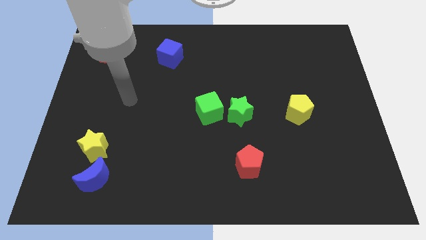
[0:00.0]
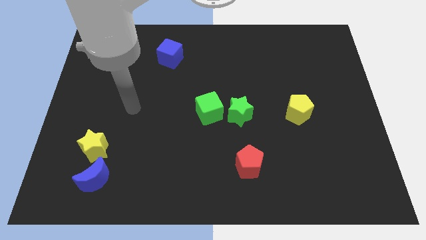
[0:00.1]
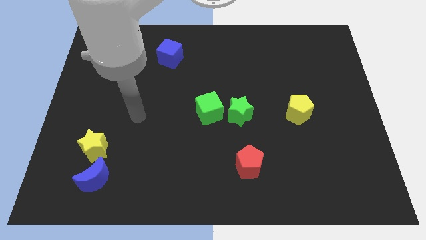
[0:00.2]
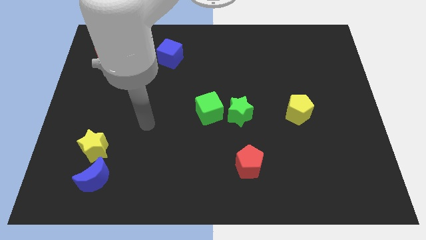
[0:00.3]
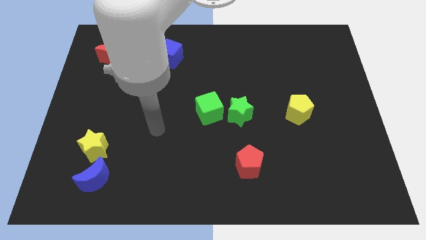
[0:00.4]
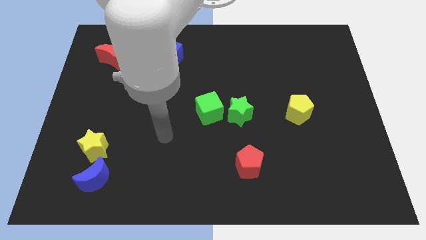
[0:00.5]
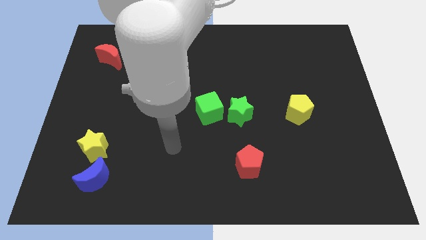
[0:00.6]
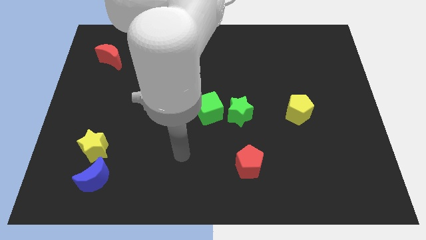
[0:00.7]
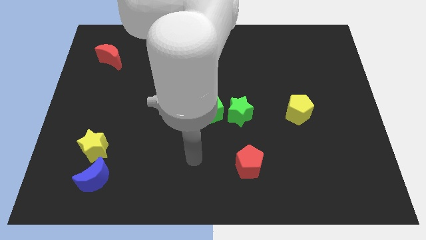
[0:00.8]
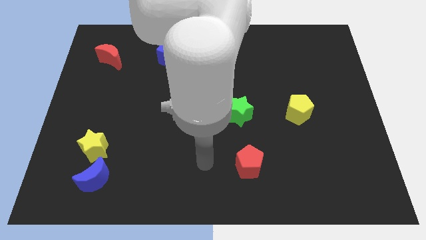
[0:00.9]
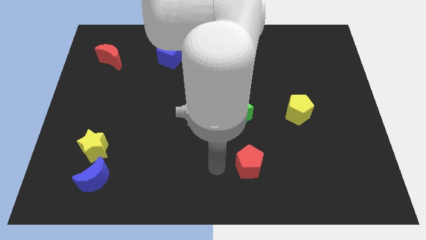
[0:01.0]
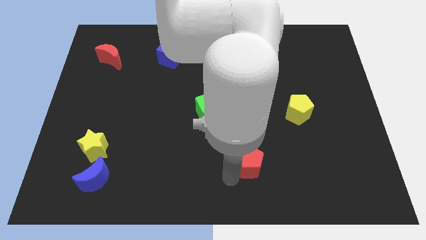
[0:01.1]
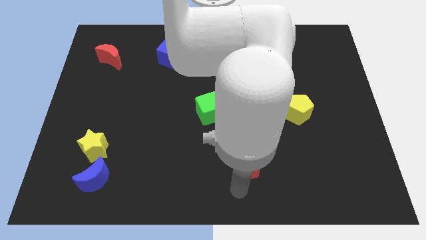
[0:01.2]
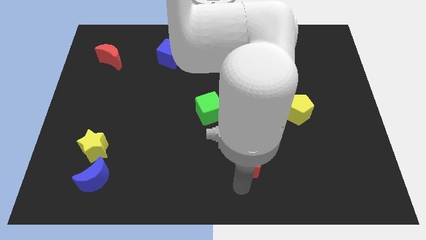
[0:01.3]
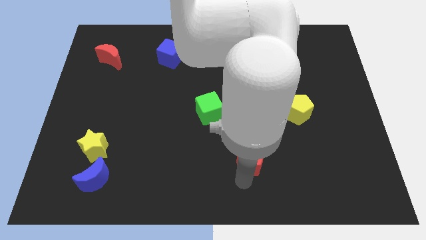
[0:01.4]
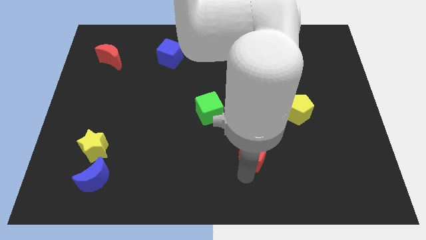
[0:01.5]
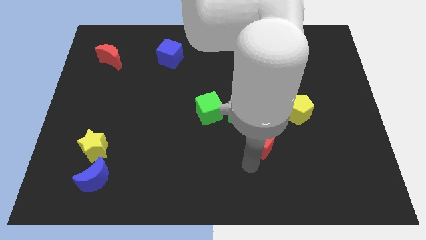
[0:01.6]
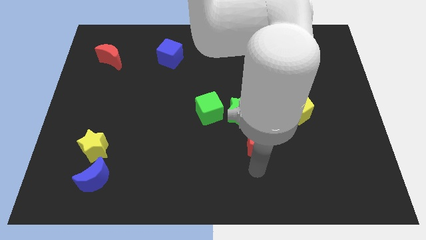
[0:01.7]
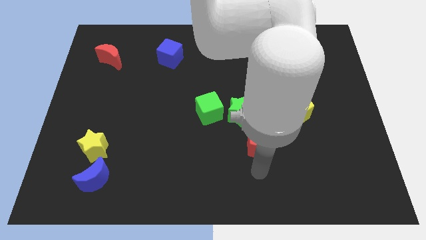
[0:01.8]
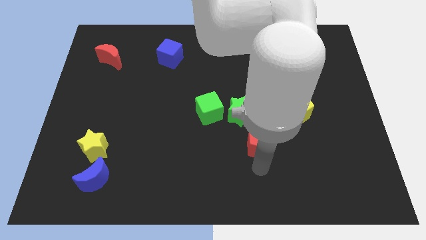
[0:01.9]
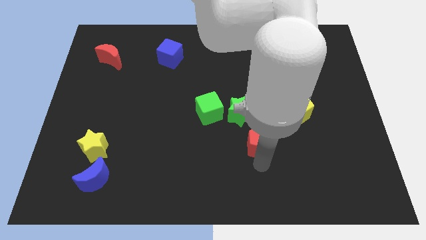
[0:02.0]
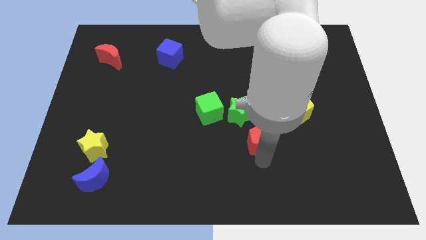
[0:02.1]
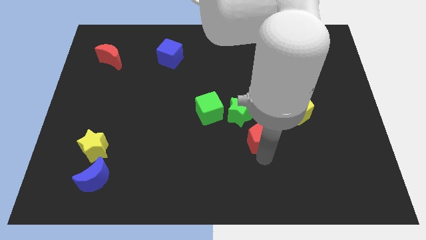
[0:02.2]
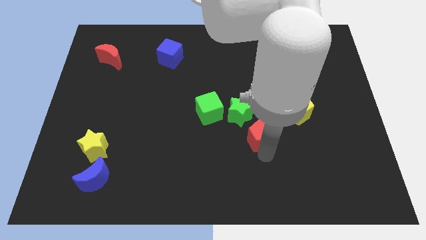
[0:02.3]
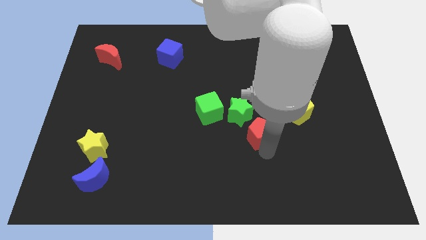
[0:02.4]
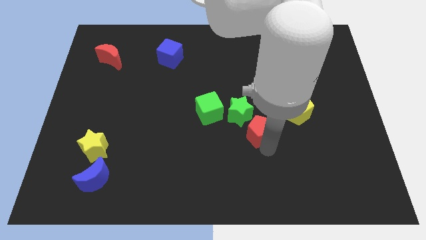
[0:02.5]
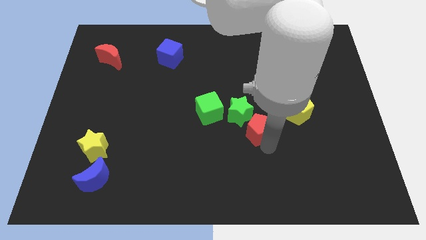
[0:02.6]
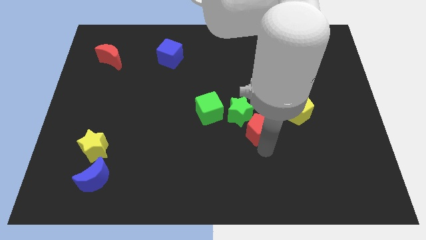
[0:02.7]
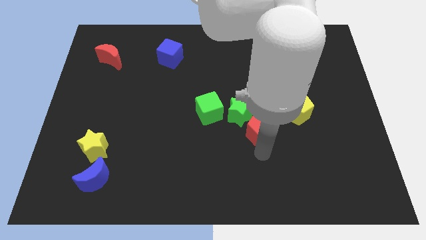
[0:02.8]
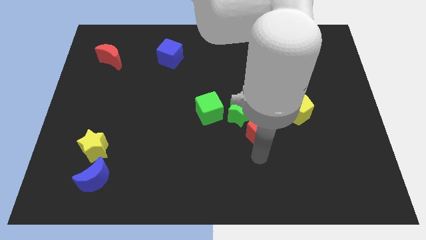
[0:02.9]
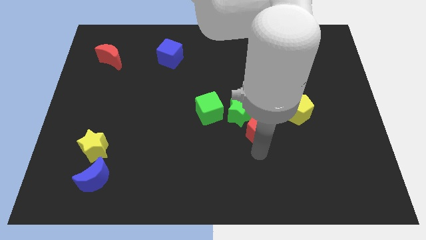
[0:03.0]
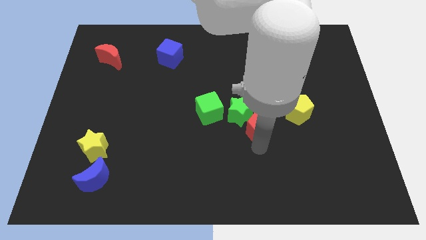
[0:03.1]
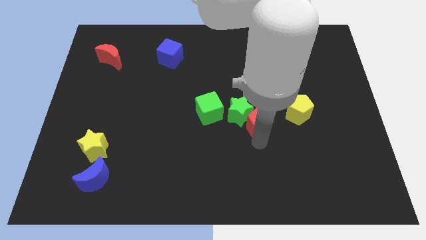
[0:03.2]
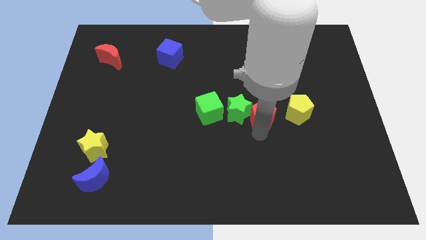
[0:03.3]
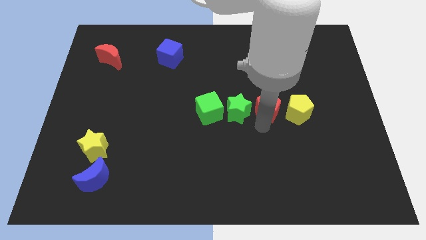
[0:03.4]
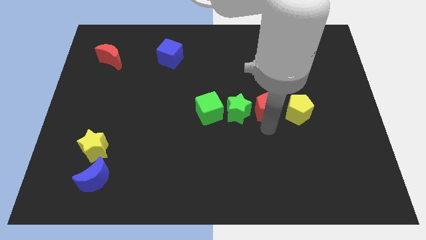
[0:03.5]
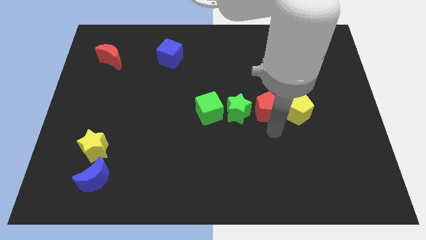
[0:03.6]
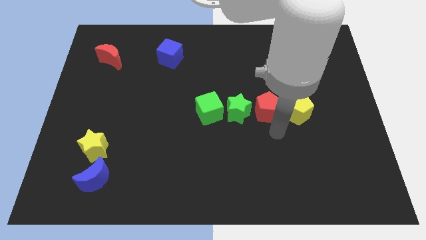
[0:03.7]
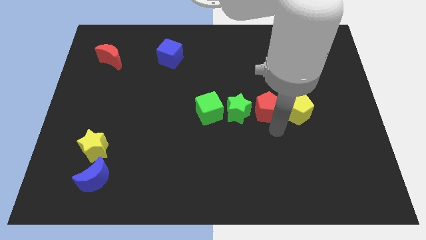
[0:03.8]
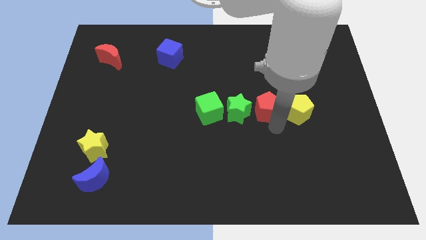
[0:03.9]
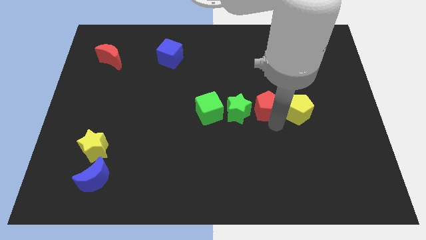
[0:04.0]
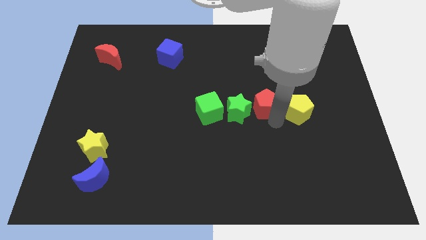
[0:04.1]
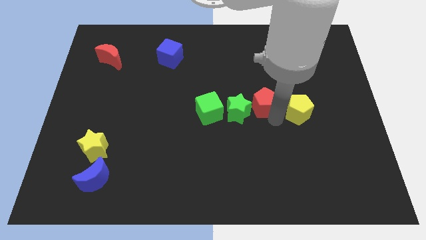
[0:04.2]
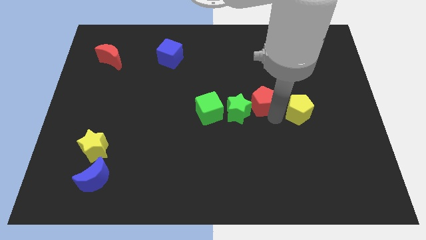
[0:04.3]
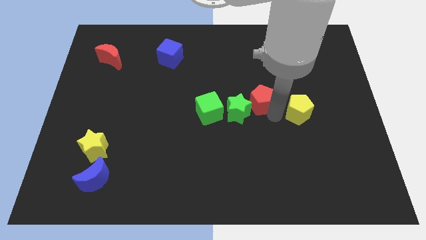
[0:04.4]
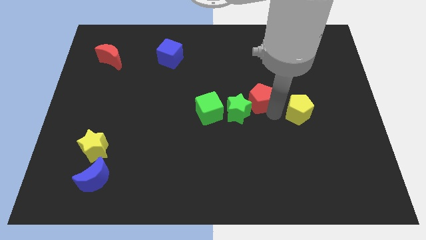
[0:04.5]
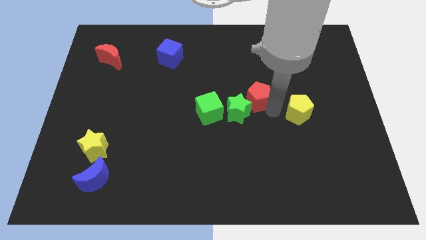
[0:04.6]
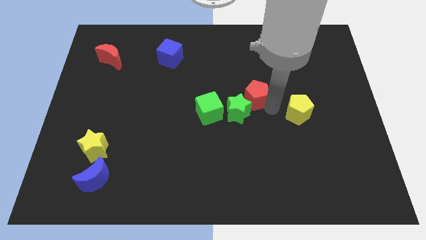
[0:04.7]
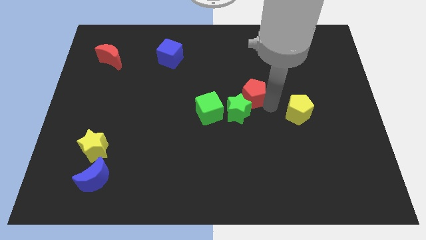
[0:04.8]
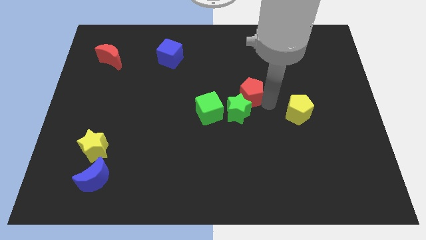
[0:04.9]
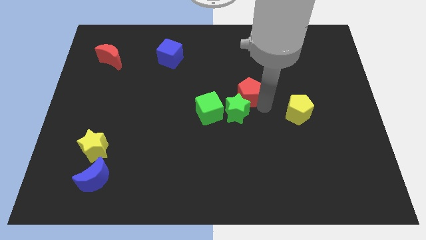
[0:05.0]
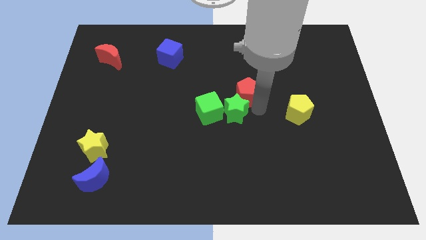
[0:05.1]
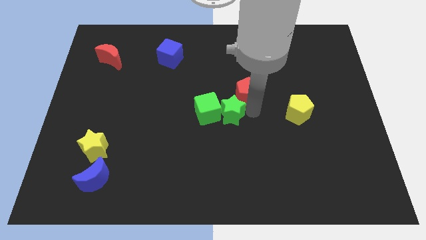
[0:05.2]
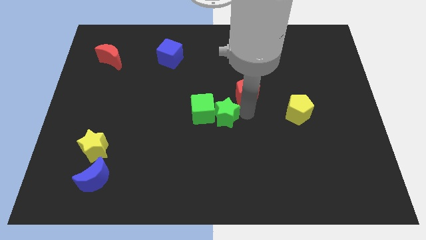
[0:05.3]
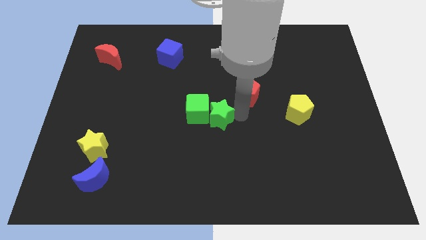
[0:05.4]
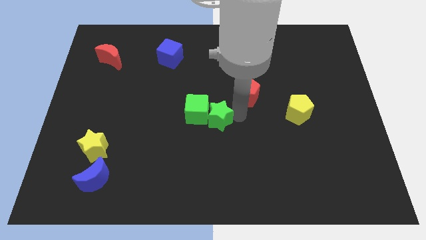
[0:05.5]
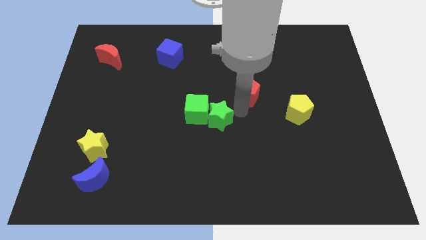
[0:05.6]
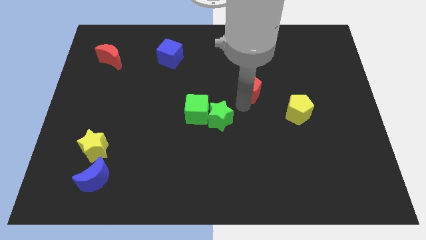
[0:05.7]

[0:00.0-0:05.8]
move the red pentagon up

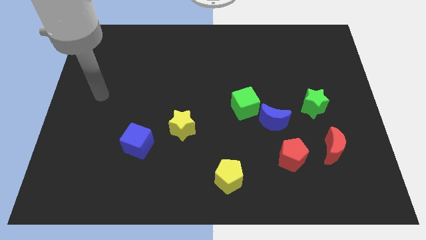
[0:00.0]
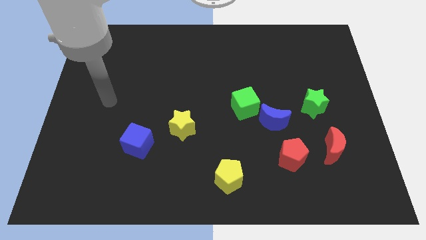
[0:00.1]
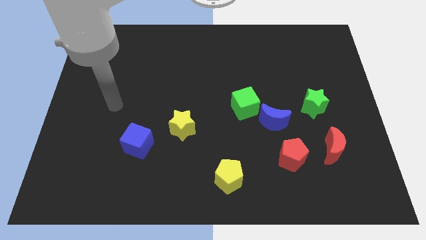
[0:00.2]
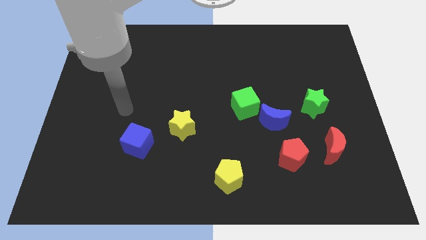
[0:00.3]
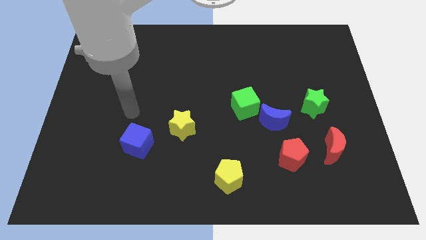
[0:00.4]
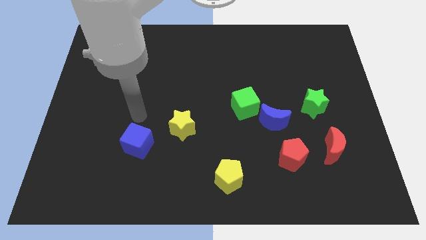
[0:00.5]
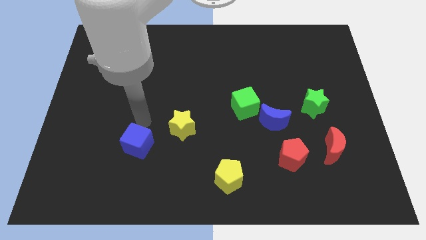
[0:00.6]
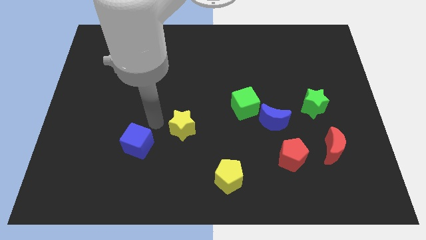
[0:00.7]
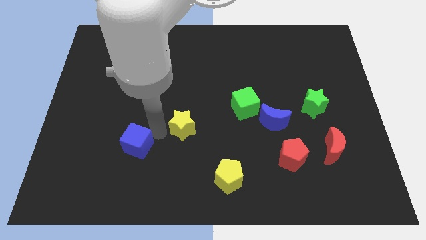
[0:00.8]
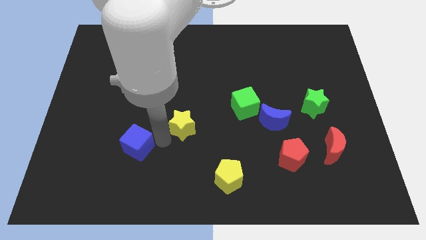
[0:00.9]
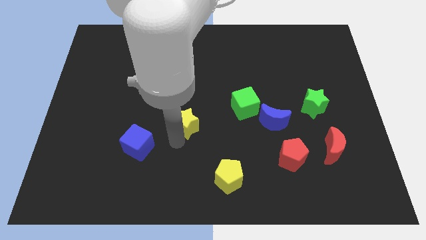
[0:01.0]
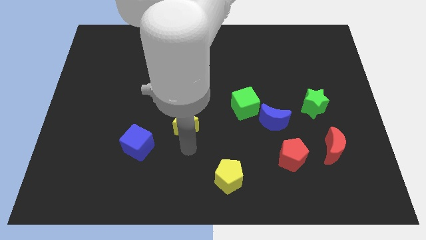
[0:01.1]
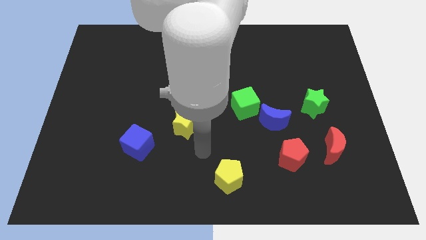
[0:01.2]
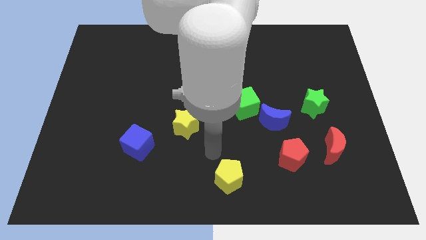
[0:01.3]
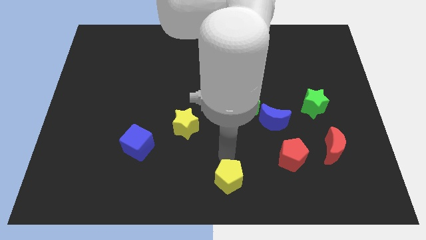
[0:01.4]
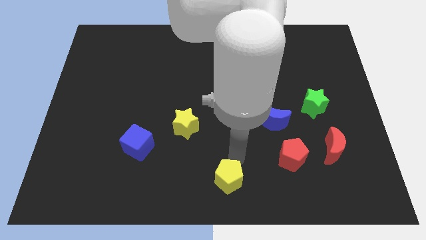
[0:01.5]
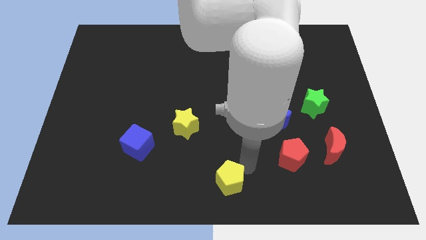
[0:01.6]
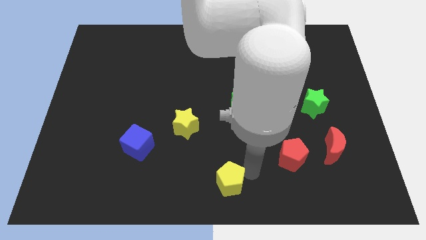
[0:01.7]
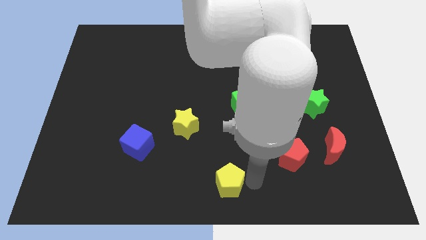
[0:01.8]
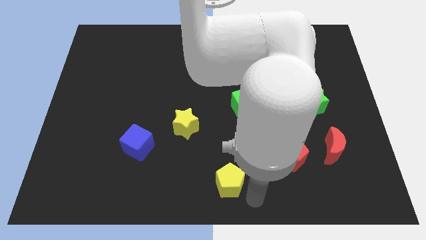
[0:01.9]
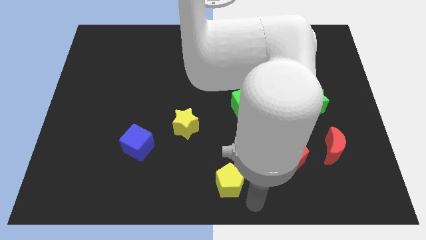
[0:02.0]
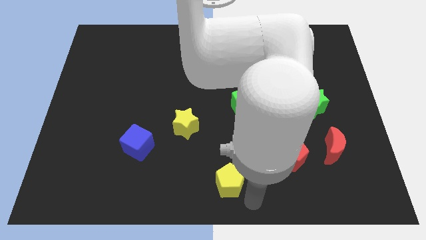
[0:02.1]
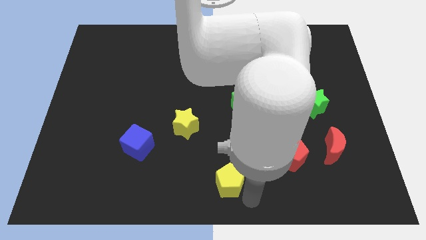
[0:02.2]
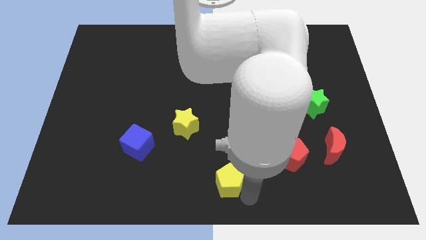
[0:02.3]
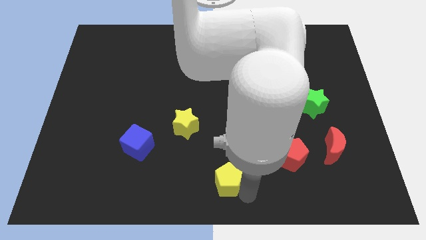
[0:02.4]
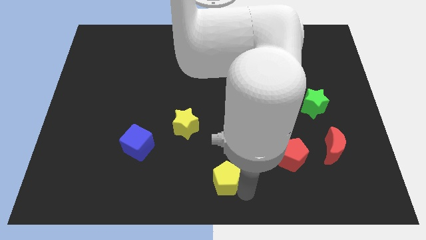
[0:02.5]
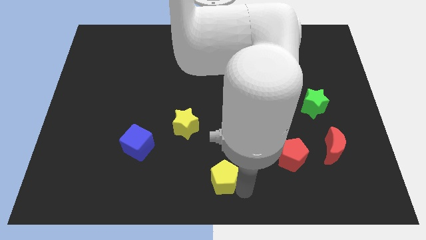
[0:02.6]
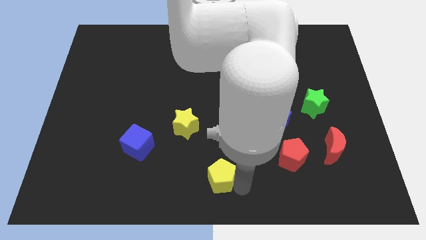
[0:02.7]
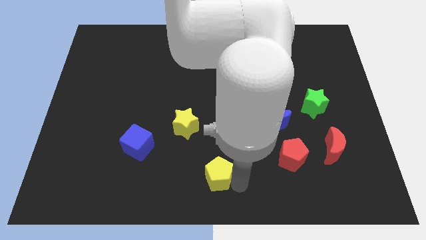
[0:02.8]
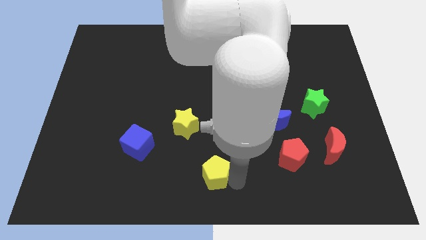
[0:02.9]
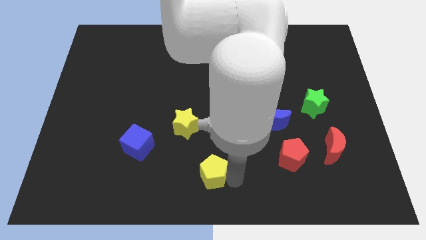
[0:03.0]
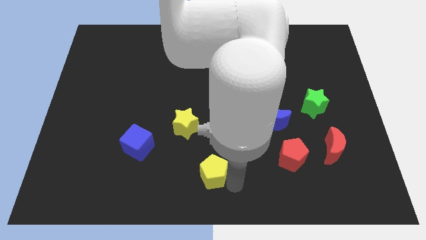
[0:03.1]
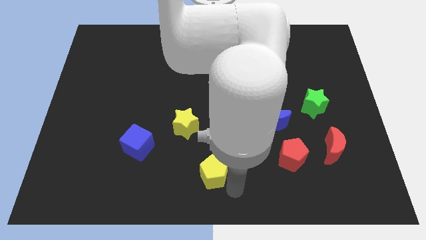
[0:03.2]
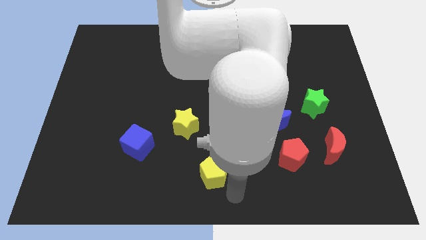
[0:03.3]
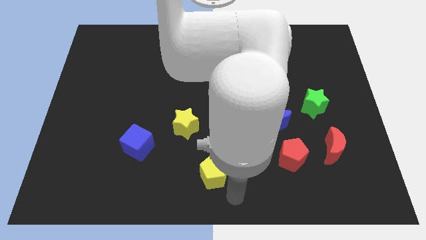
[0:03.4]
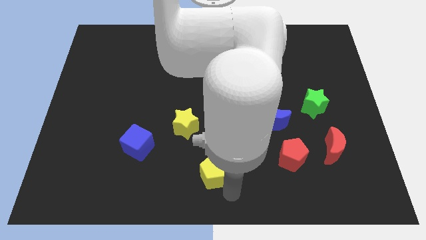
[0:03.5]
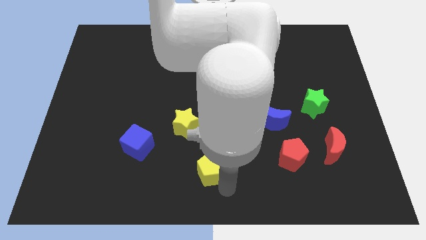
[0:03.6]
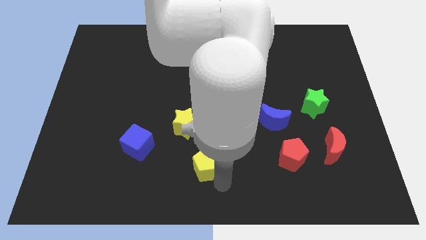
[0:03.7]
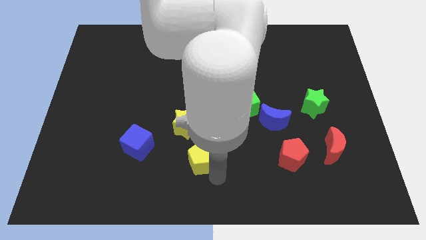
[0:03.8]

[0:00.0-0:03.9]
move the yellow pentagon up and left slightly
